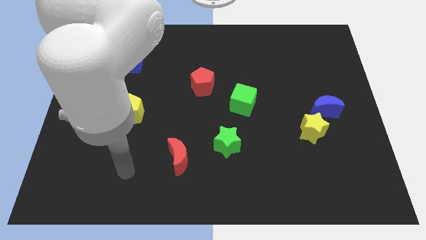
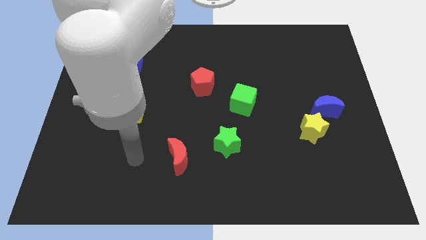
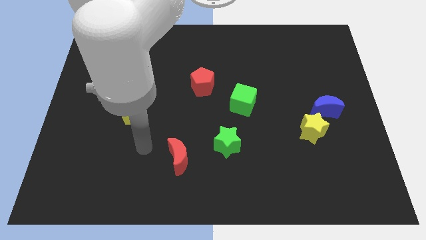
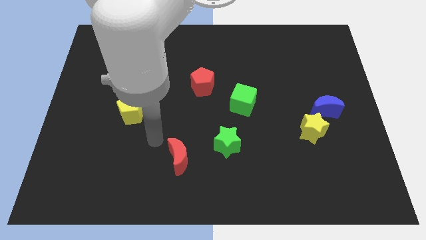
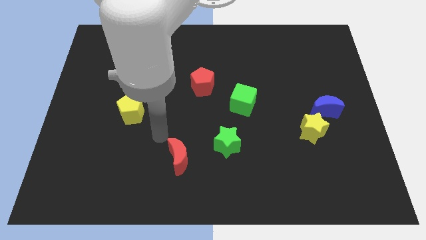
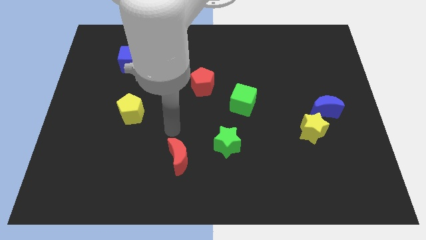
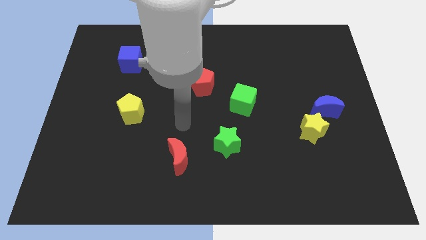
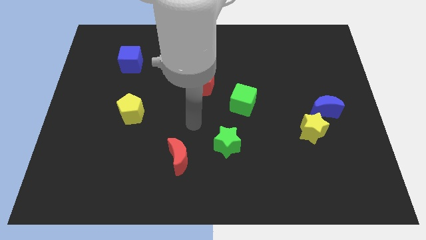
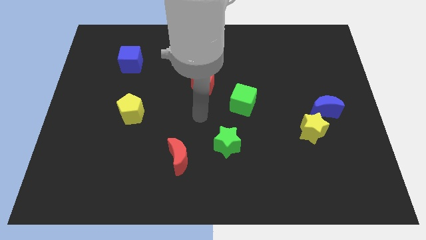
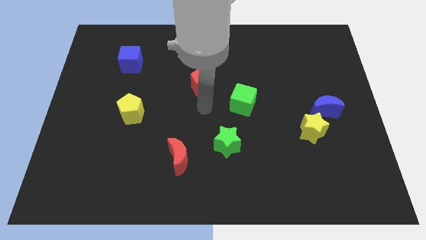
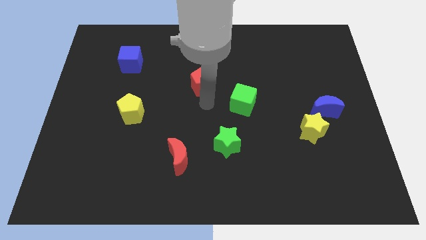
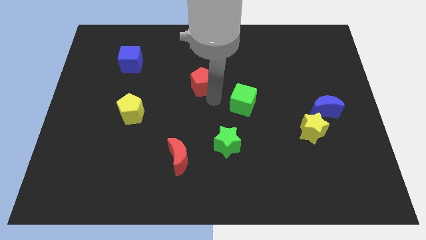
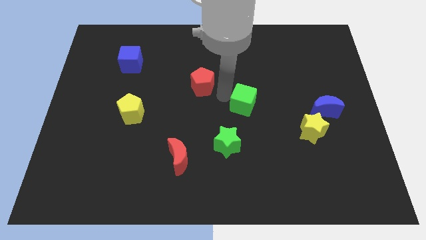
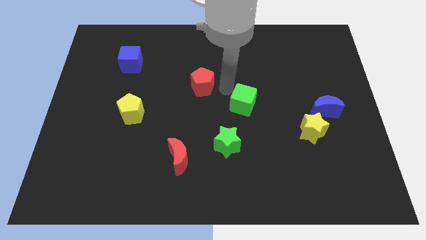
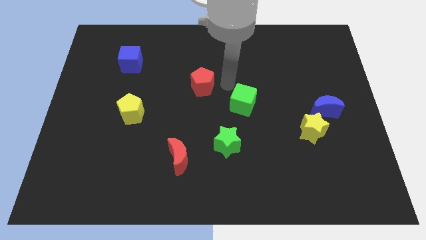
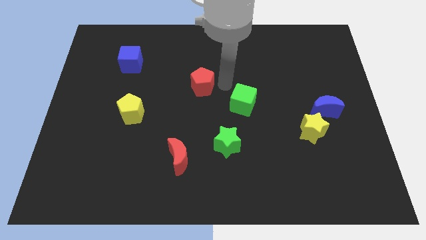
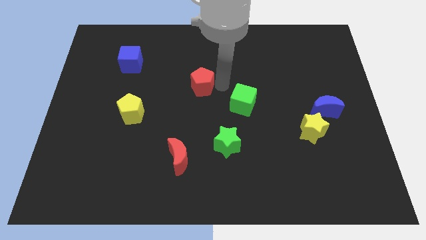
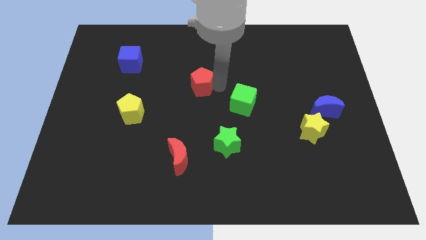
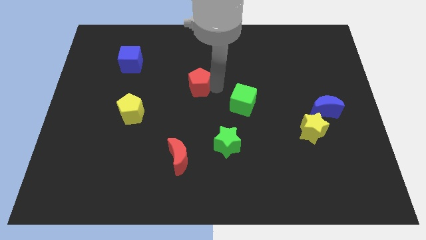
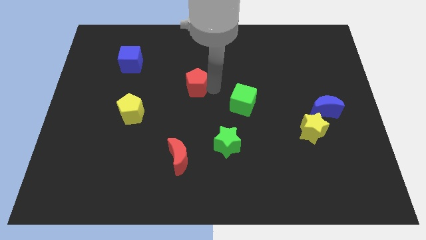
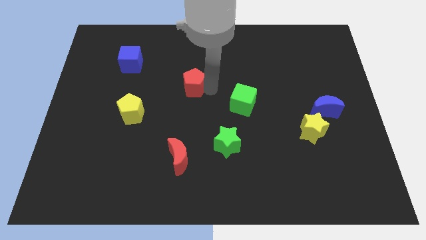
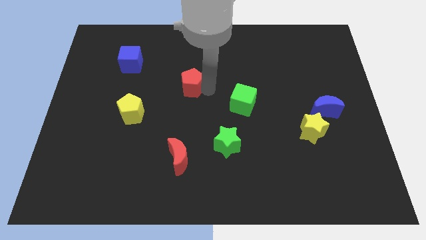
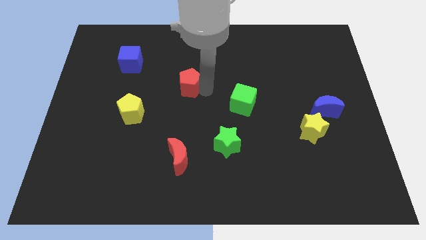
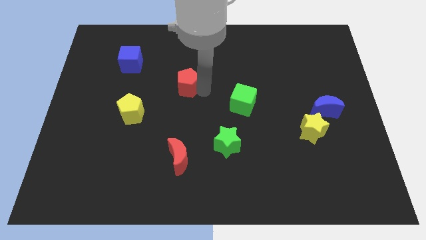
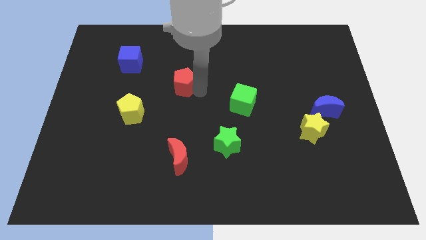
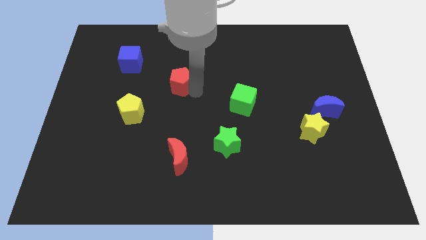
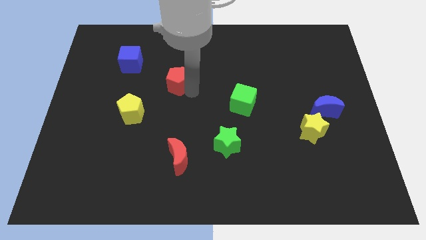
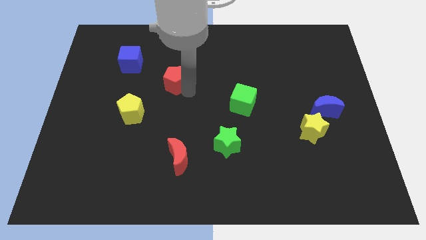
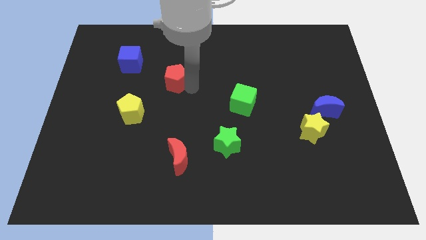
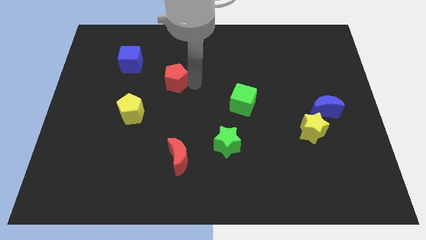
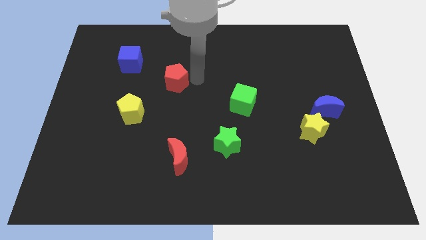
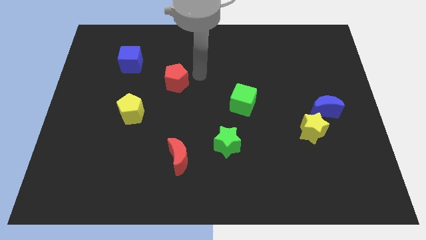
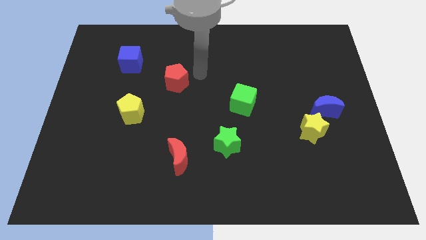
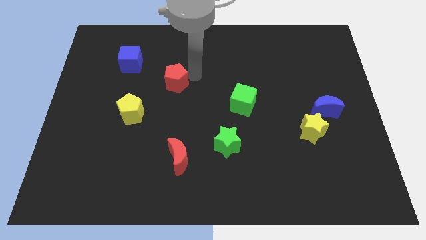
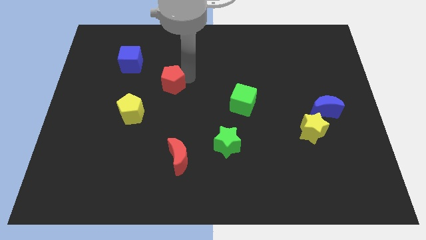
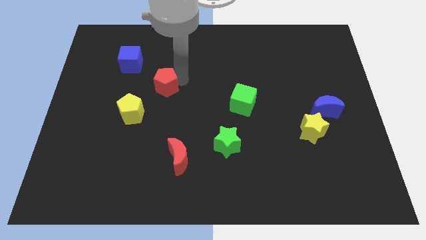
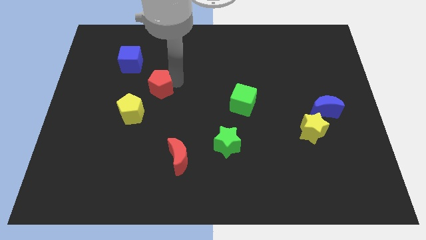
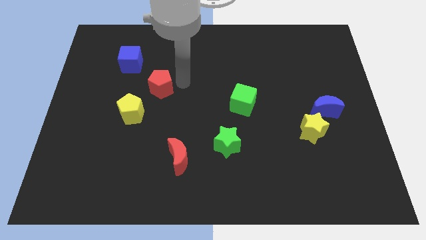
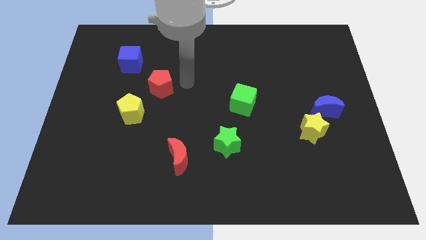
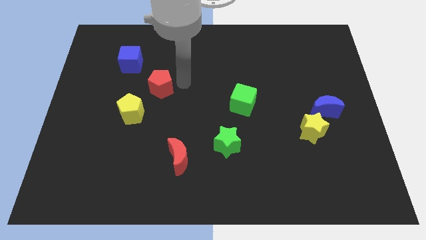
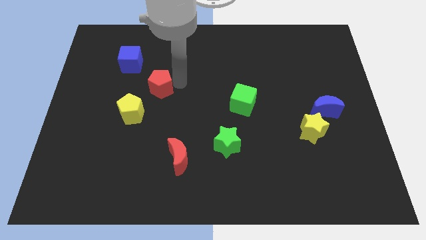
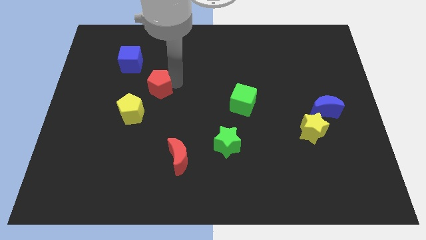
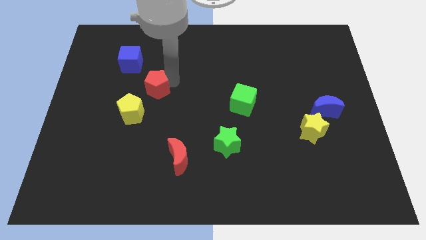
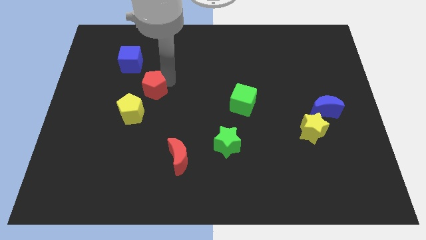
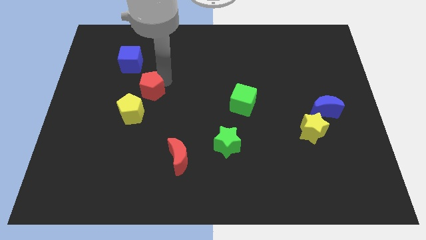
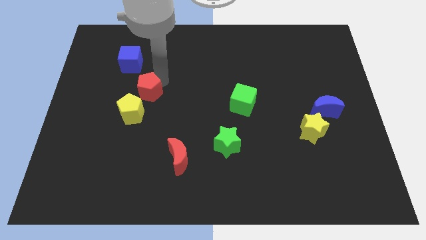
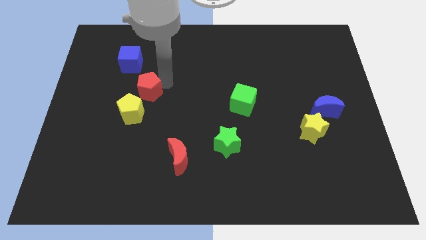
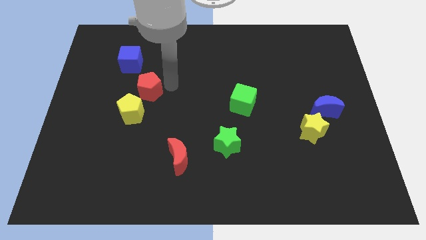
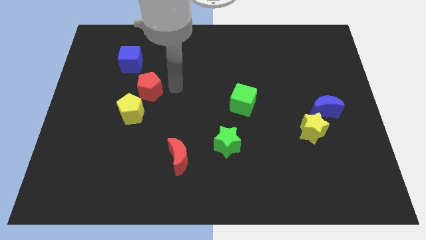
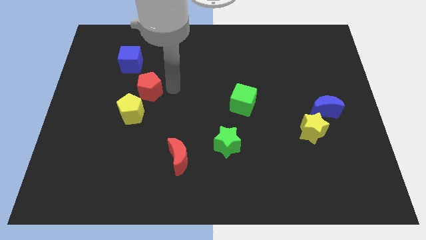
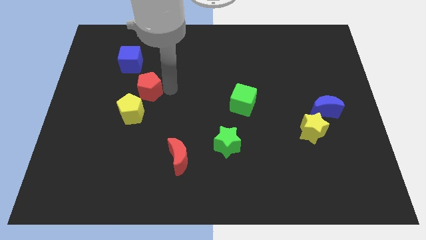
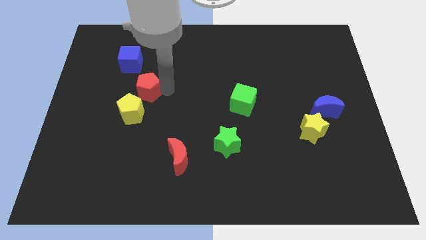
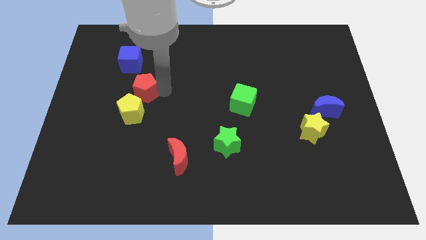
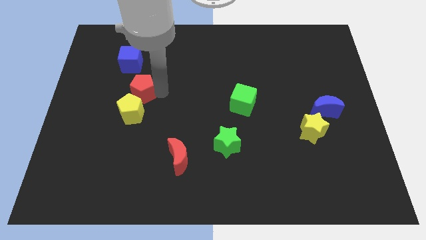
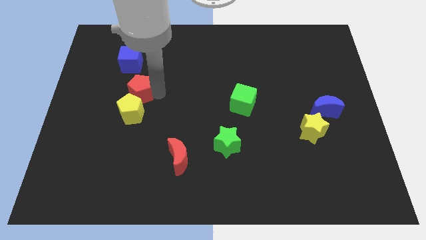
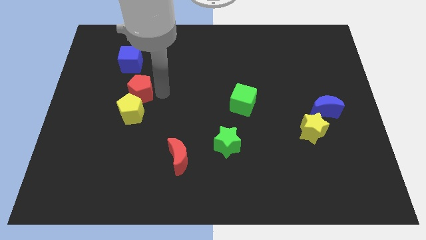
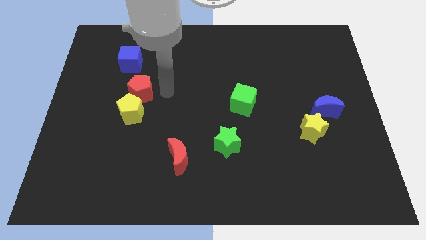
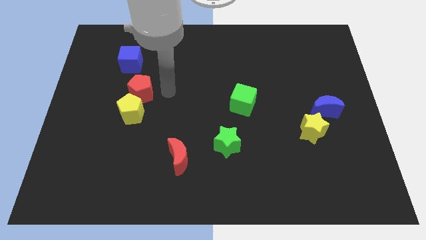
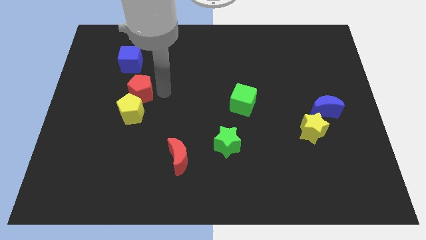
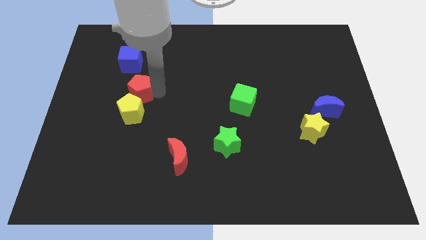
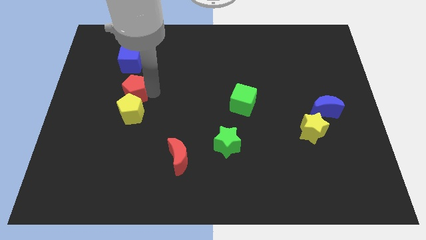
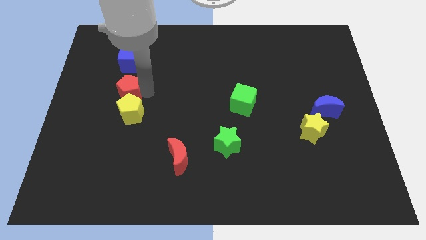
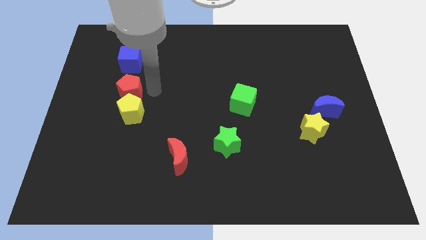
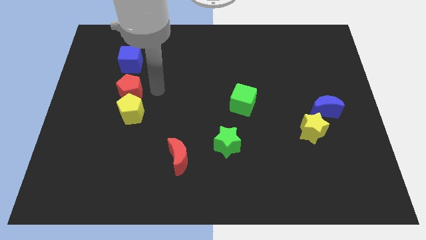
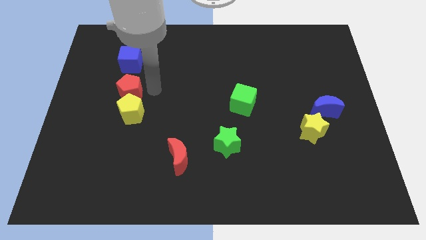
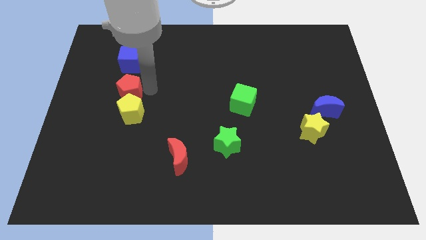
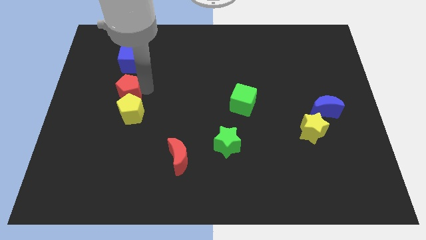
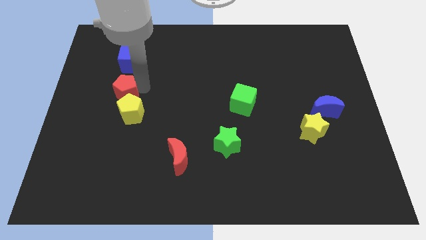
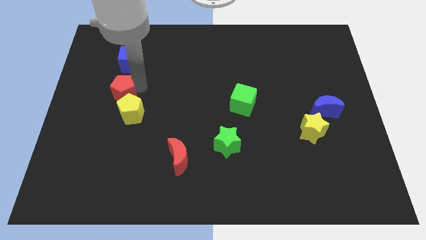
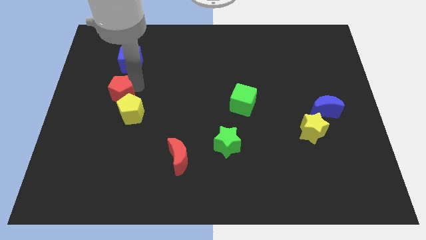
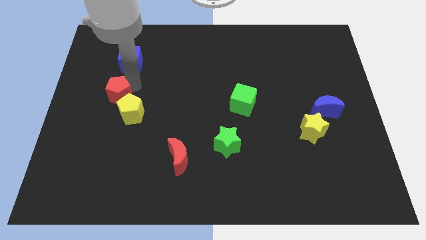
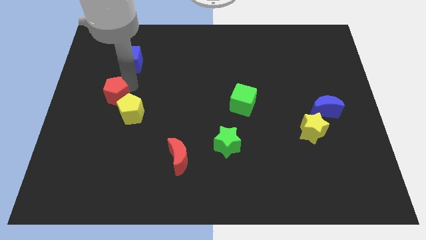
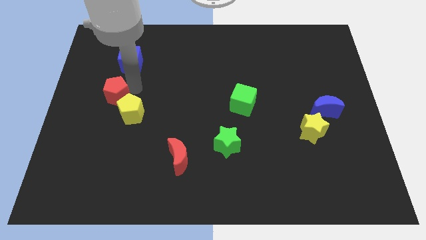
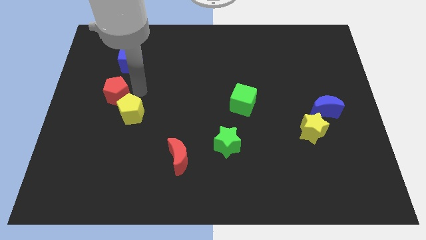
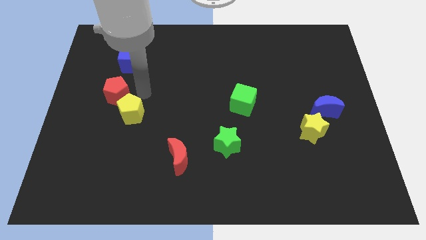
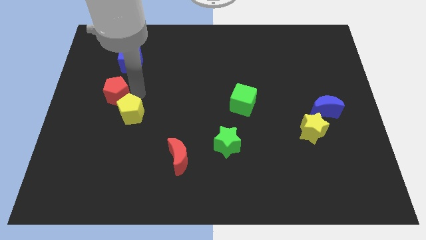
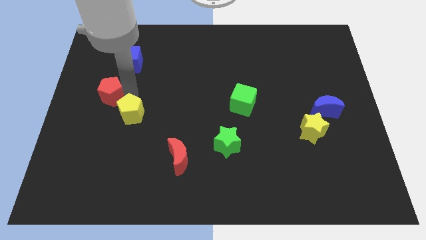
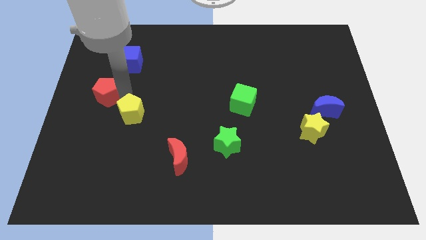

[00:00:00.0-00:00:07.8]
push the red pentagon to the center left
